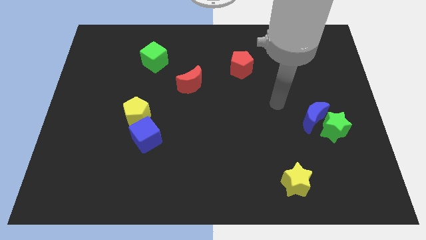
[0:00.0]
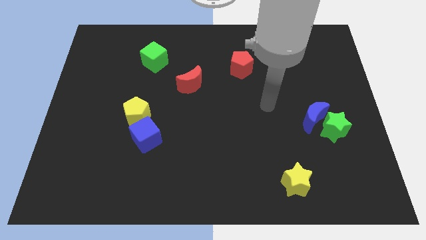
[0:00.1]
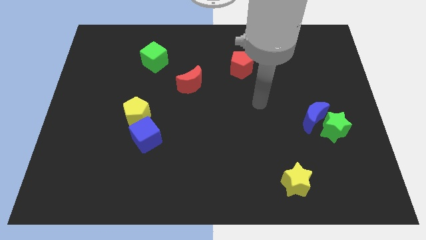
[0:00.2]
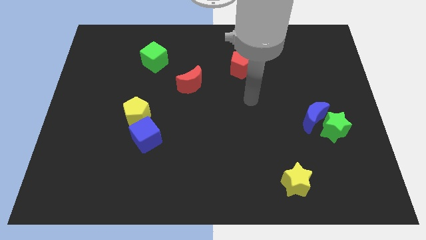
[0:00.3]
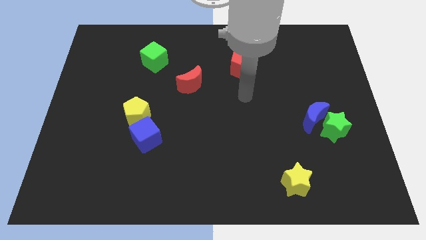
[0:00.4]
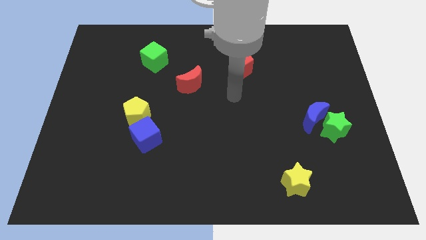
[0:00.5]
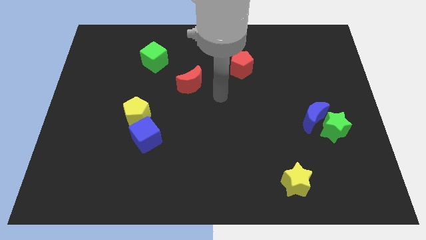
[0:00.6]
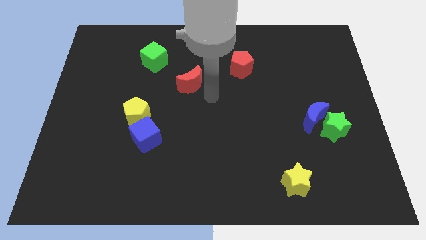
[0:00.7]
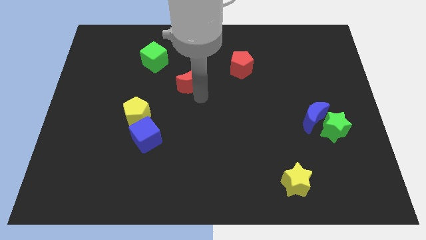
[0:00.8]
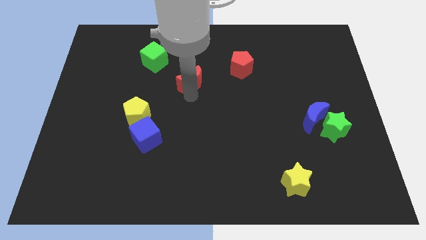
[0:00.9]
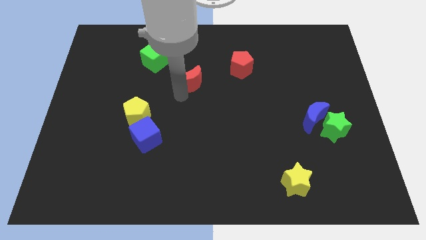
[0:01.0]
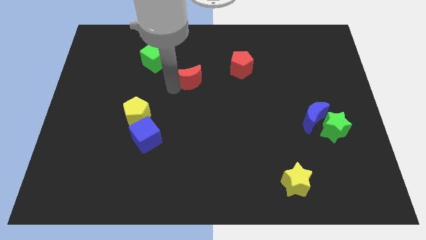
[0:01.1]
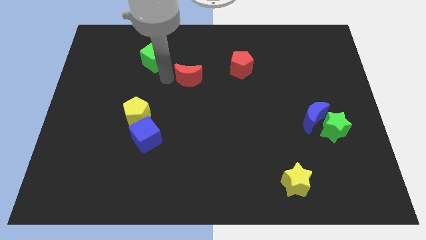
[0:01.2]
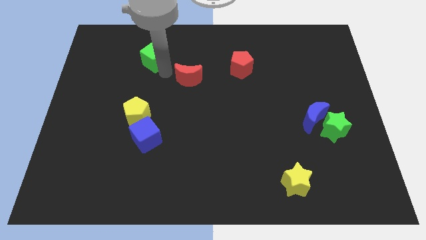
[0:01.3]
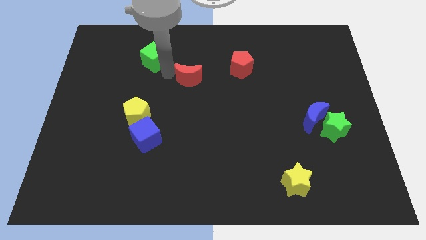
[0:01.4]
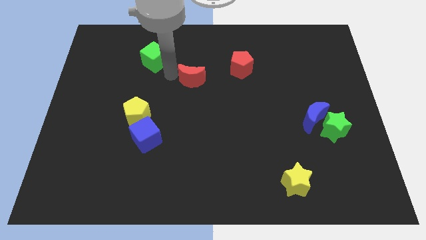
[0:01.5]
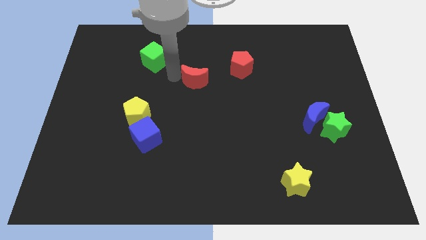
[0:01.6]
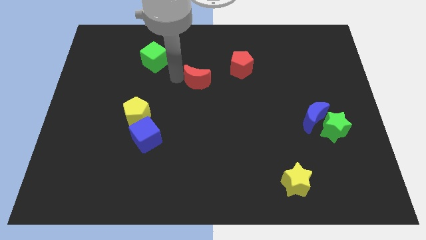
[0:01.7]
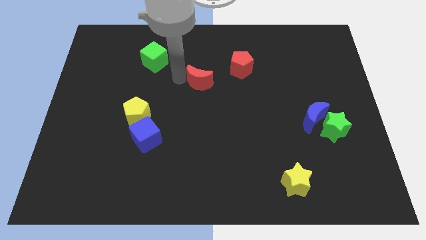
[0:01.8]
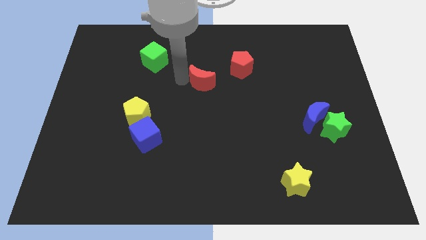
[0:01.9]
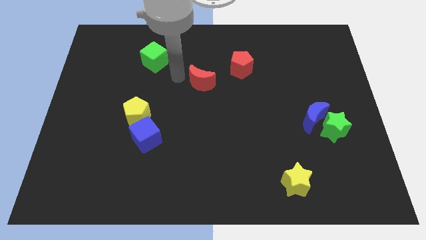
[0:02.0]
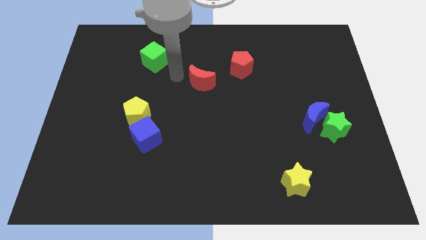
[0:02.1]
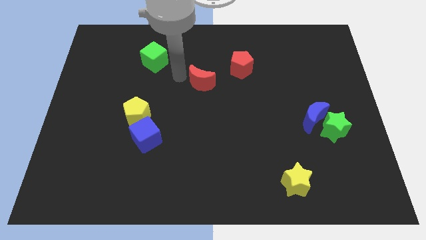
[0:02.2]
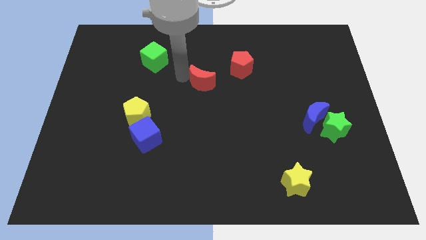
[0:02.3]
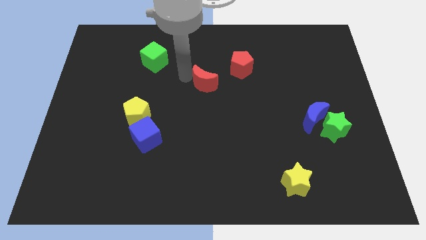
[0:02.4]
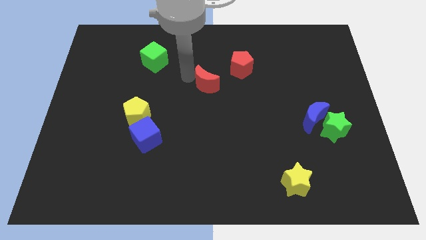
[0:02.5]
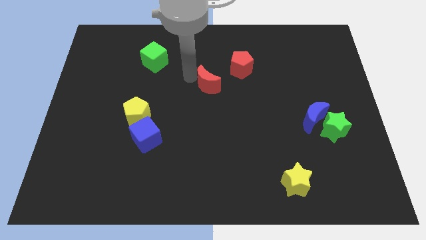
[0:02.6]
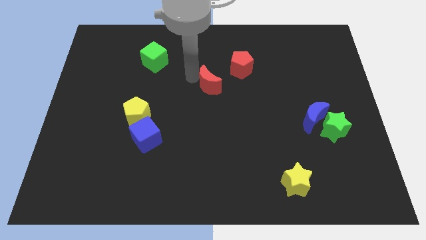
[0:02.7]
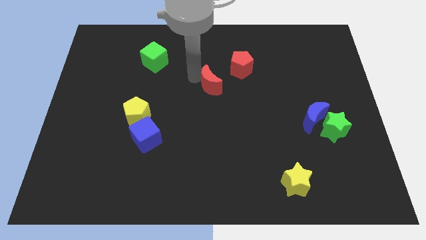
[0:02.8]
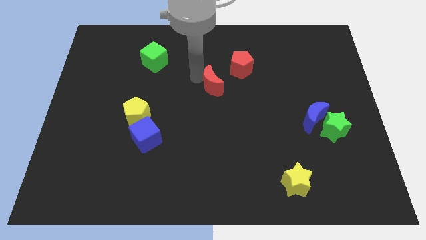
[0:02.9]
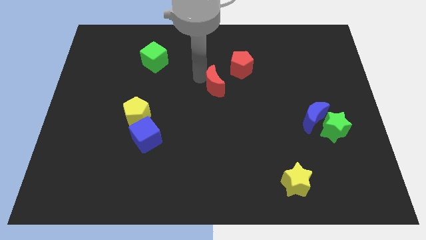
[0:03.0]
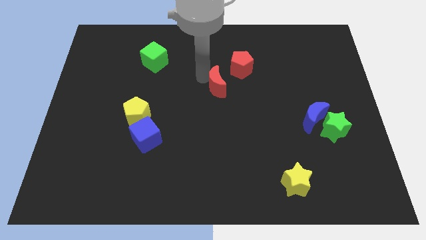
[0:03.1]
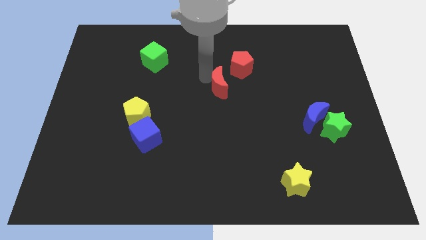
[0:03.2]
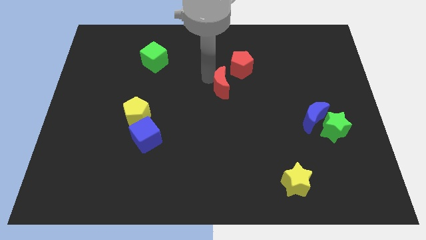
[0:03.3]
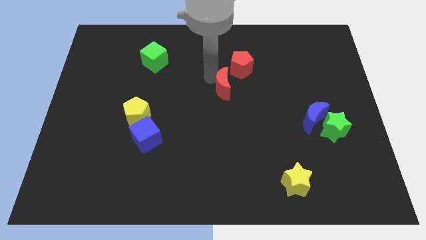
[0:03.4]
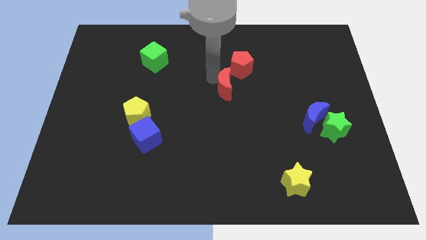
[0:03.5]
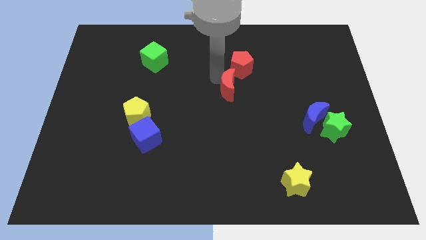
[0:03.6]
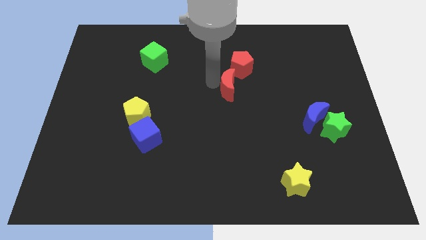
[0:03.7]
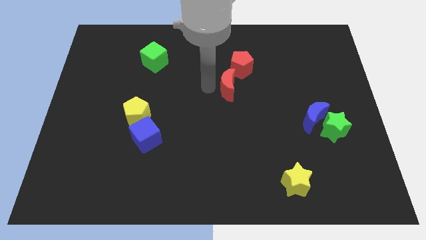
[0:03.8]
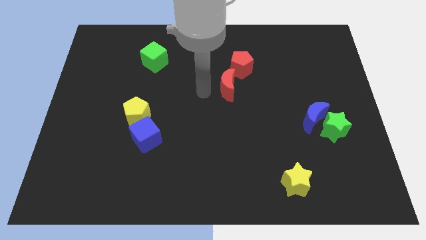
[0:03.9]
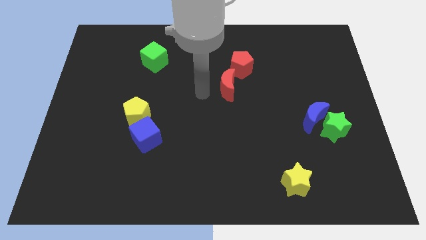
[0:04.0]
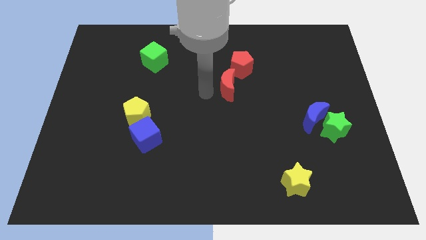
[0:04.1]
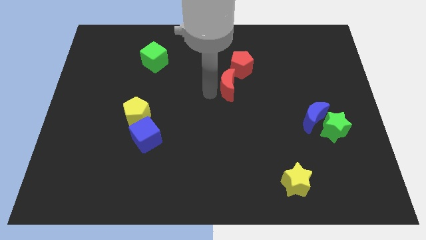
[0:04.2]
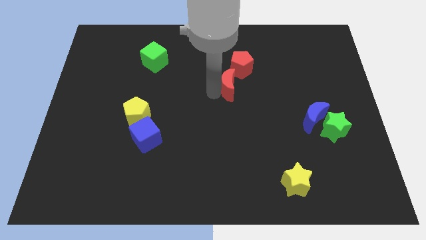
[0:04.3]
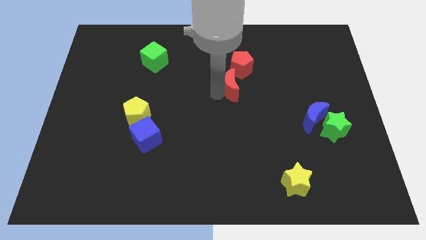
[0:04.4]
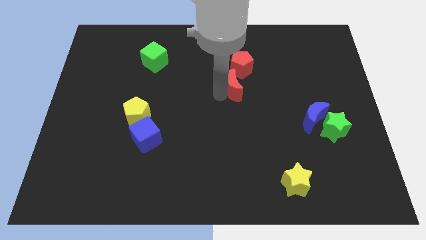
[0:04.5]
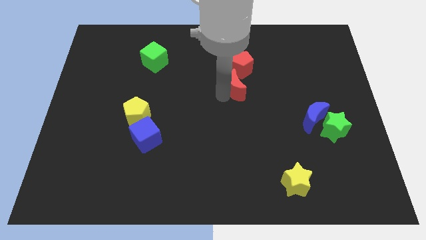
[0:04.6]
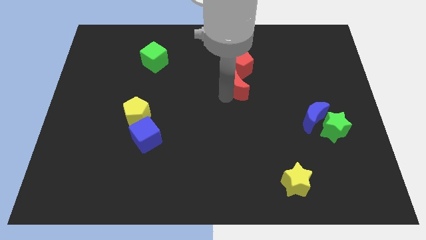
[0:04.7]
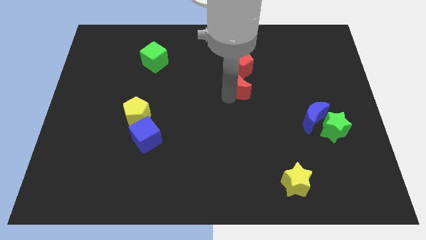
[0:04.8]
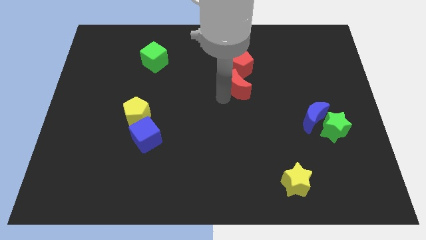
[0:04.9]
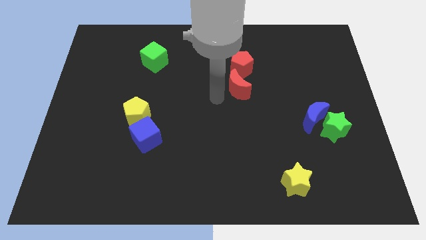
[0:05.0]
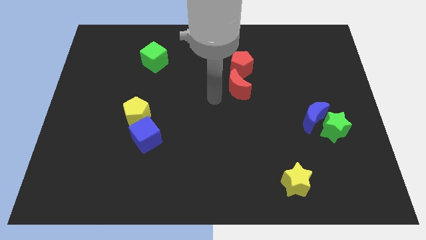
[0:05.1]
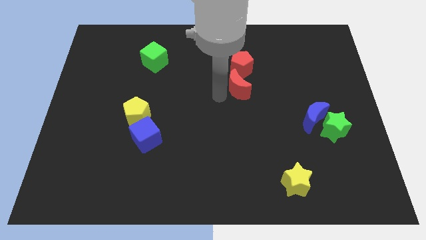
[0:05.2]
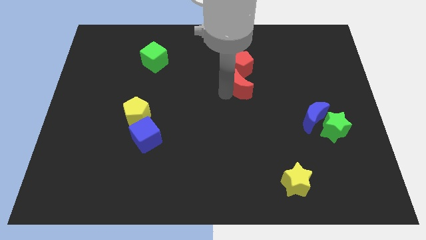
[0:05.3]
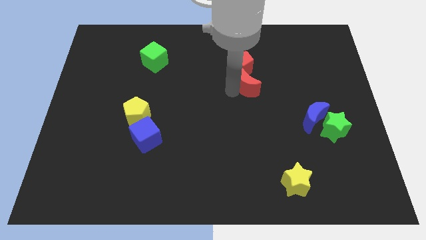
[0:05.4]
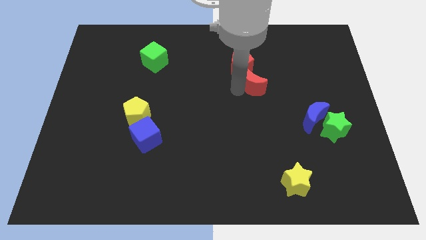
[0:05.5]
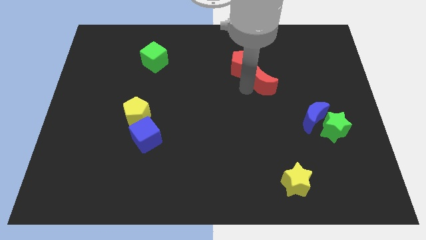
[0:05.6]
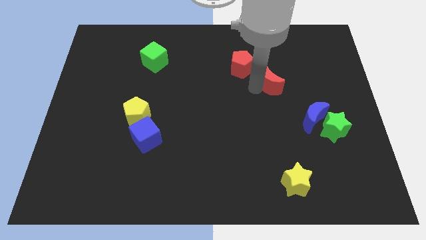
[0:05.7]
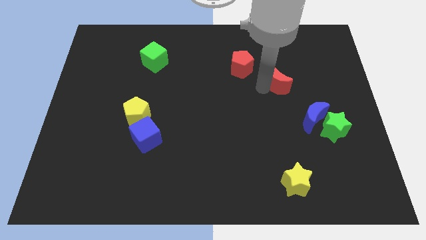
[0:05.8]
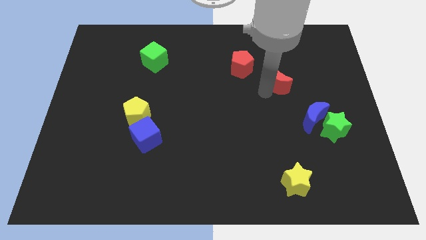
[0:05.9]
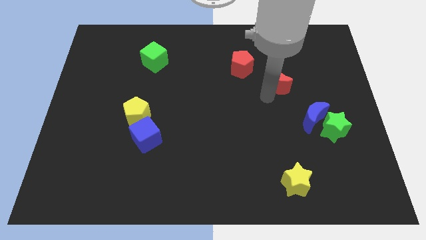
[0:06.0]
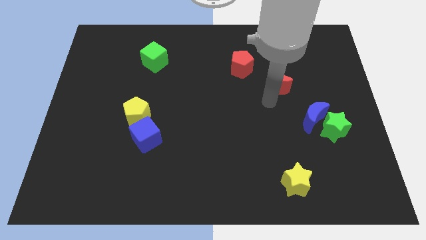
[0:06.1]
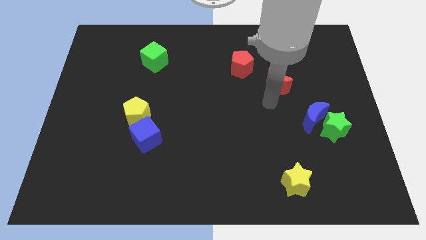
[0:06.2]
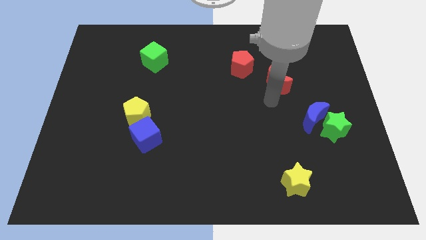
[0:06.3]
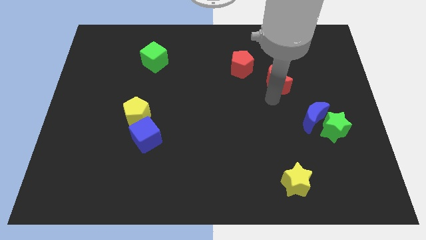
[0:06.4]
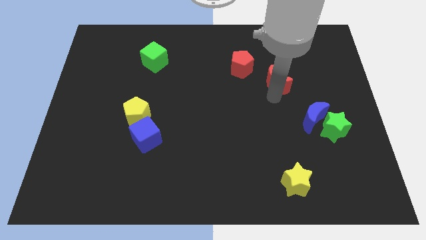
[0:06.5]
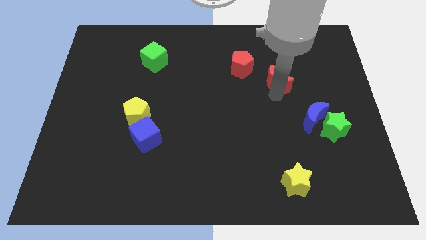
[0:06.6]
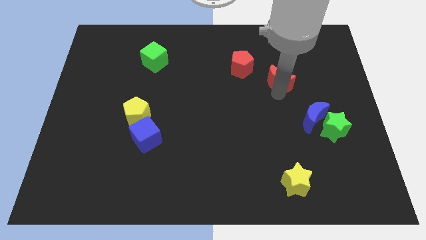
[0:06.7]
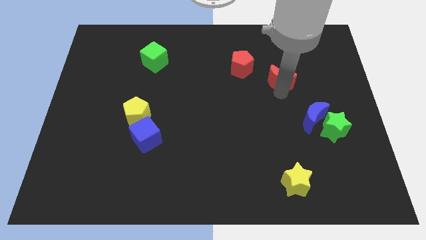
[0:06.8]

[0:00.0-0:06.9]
put the red moon right of the red pentagon
